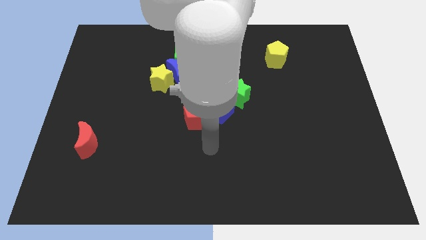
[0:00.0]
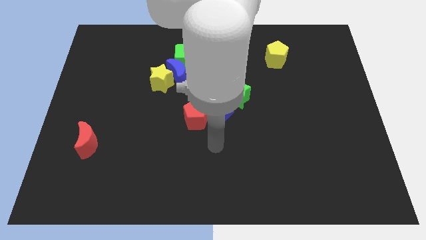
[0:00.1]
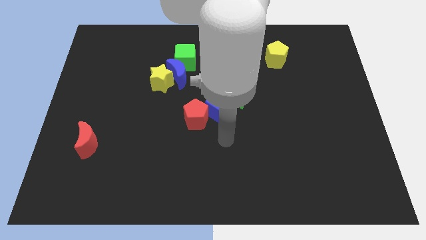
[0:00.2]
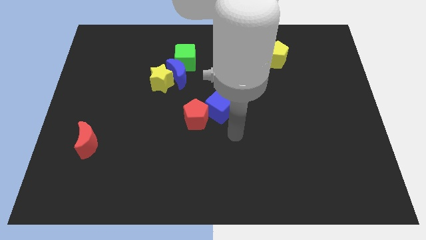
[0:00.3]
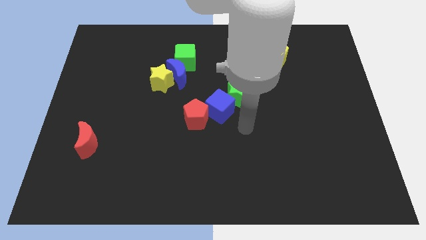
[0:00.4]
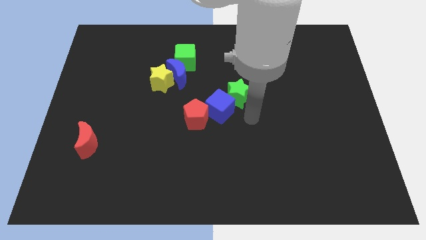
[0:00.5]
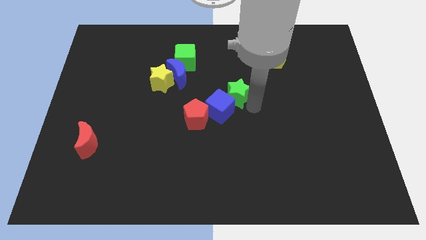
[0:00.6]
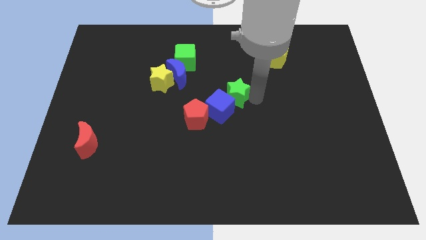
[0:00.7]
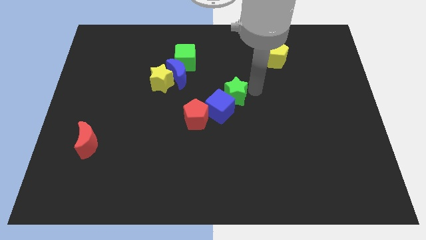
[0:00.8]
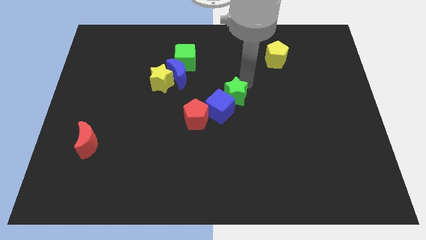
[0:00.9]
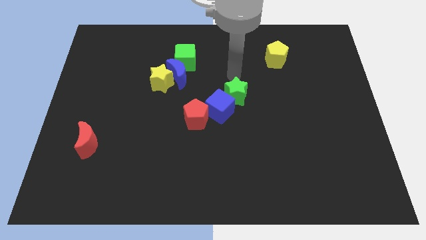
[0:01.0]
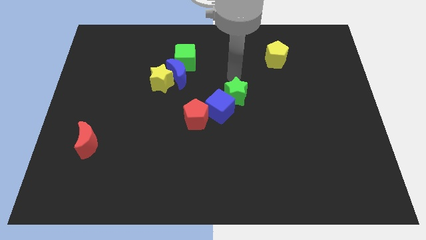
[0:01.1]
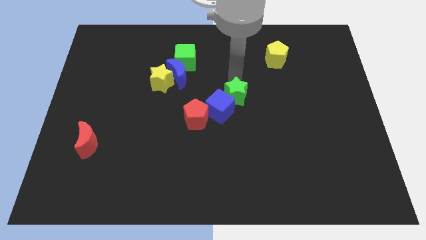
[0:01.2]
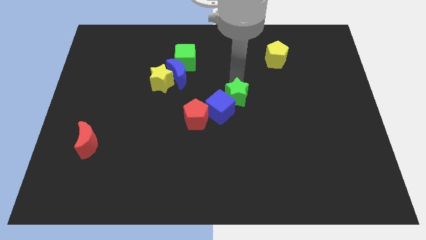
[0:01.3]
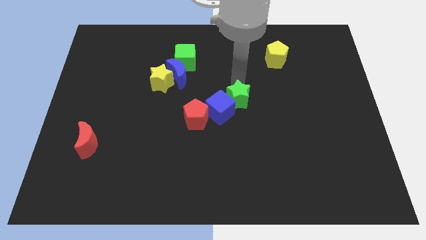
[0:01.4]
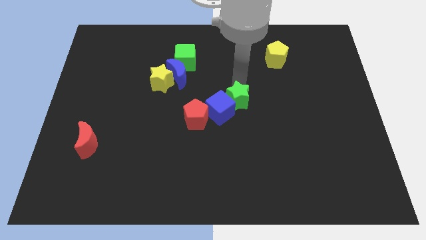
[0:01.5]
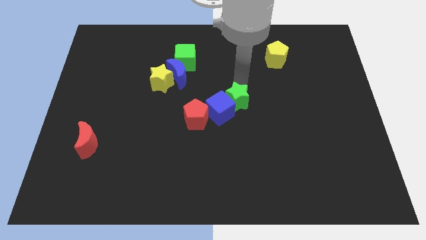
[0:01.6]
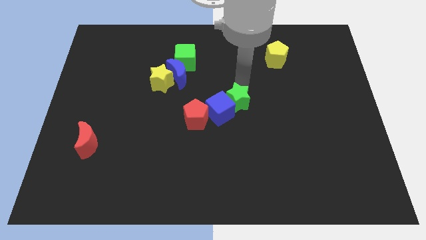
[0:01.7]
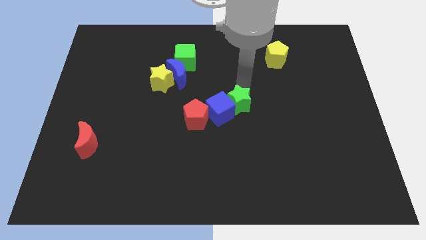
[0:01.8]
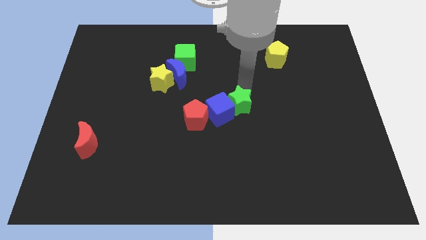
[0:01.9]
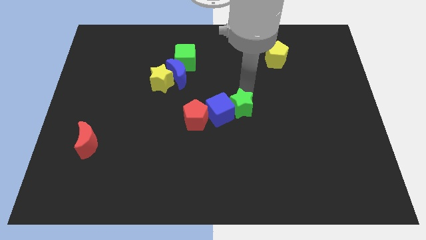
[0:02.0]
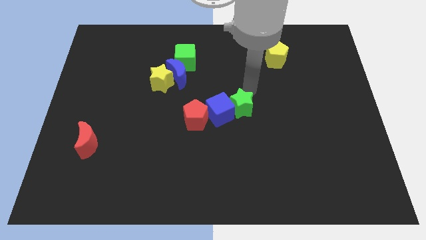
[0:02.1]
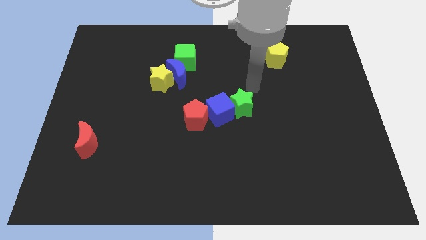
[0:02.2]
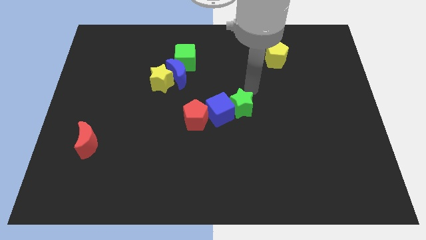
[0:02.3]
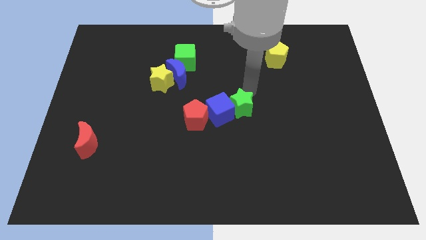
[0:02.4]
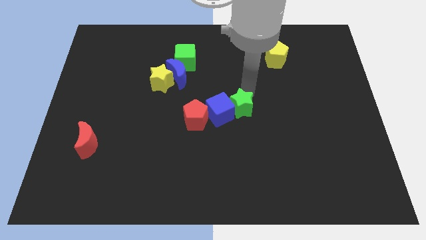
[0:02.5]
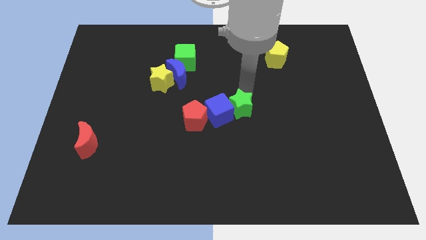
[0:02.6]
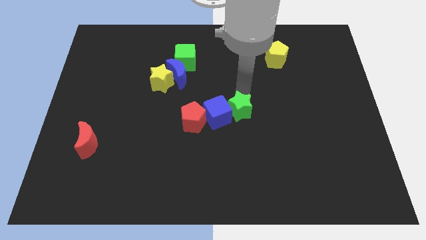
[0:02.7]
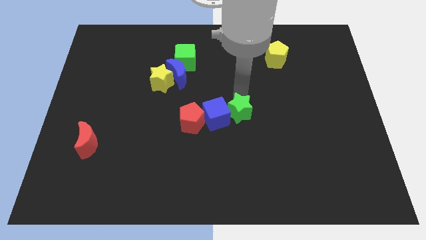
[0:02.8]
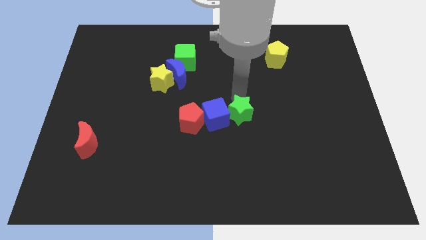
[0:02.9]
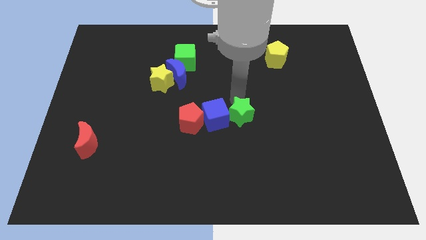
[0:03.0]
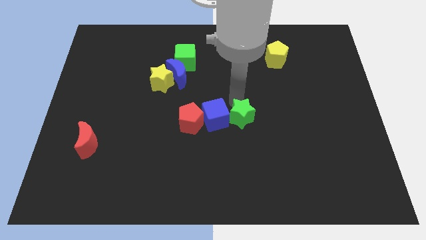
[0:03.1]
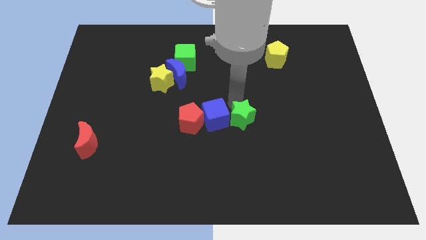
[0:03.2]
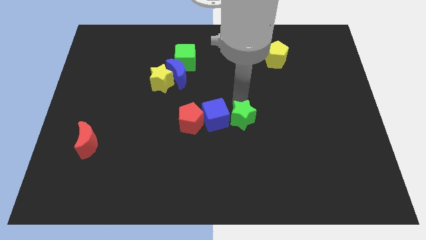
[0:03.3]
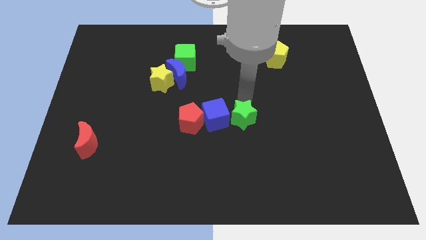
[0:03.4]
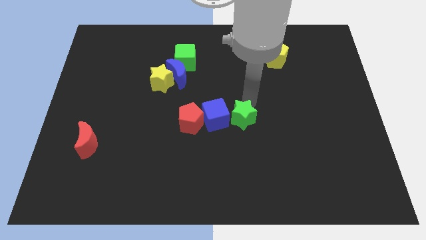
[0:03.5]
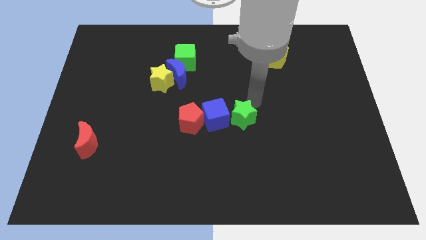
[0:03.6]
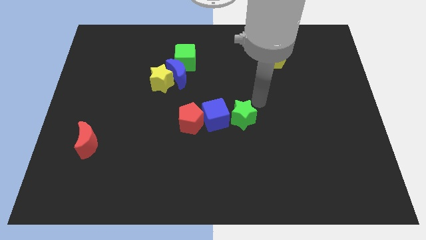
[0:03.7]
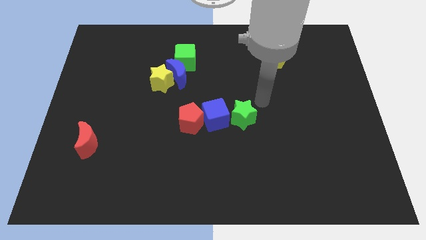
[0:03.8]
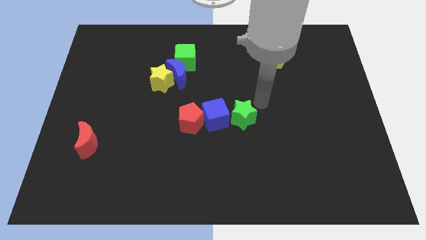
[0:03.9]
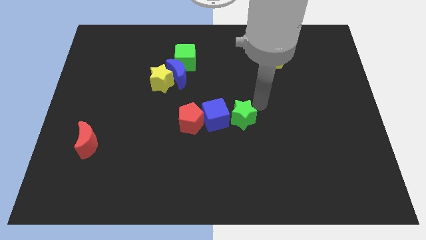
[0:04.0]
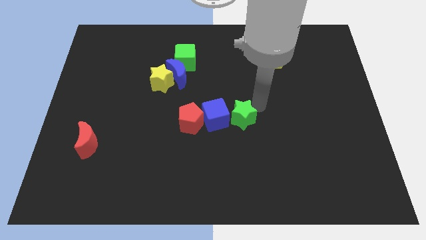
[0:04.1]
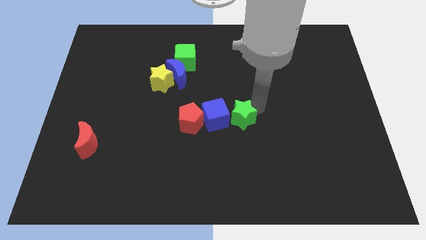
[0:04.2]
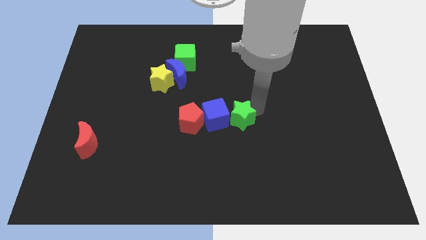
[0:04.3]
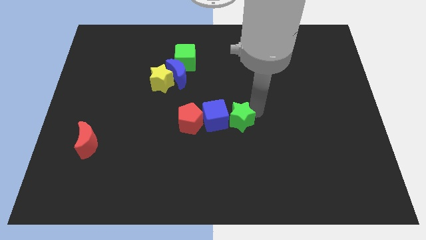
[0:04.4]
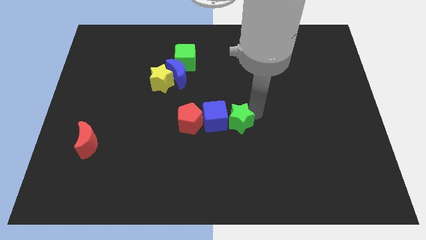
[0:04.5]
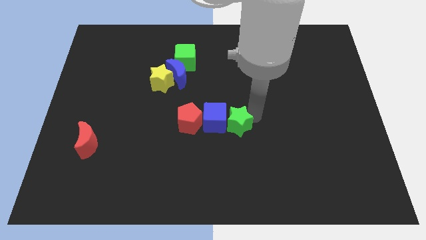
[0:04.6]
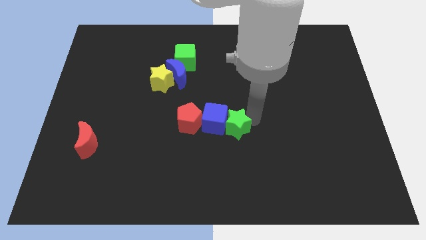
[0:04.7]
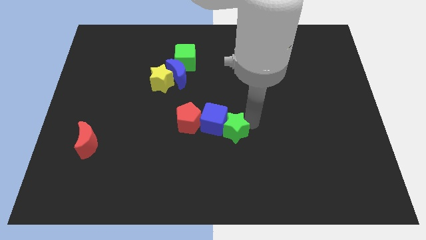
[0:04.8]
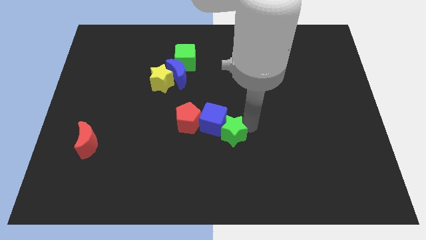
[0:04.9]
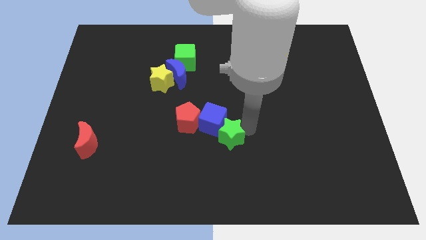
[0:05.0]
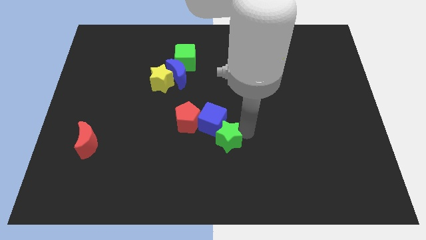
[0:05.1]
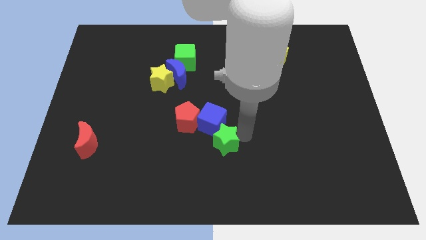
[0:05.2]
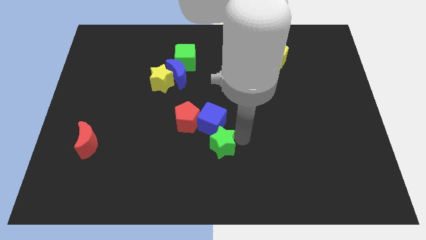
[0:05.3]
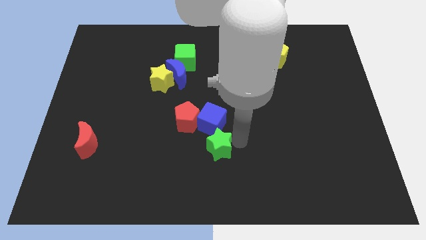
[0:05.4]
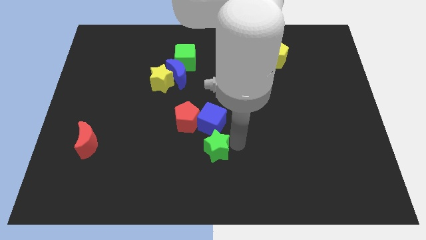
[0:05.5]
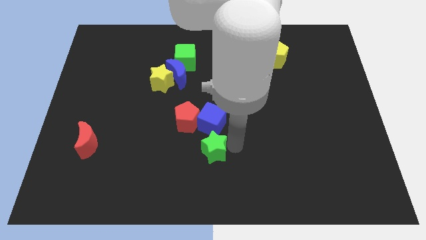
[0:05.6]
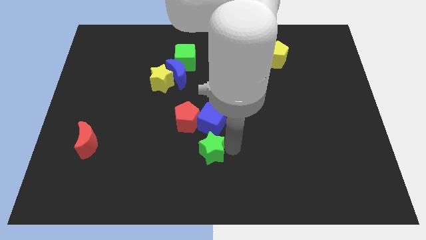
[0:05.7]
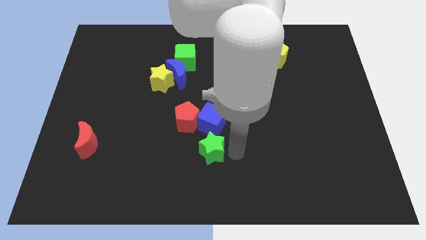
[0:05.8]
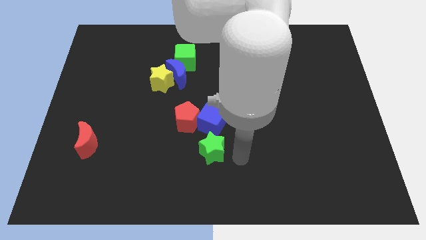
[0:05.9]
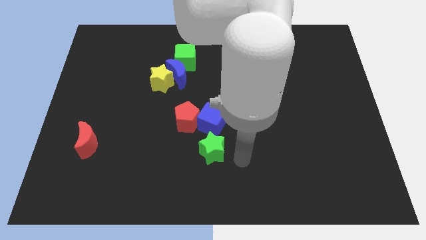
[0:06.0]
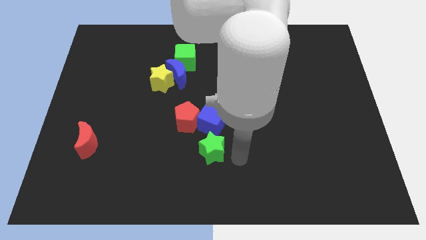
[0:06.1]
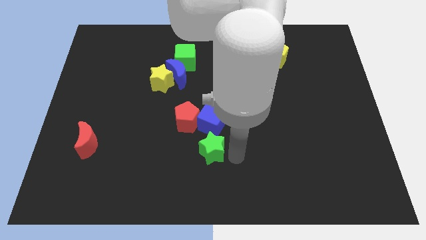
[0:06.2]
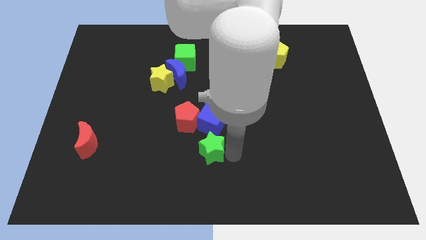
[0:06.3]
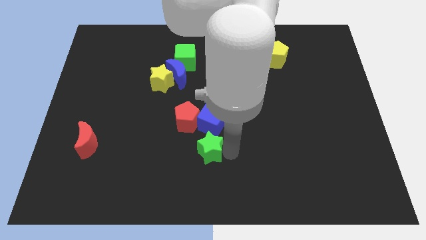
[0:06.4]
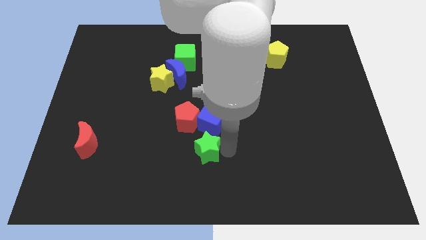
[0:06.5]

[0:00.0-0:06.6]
push the green star to the bottom left of the blue cube

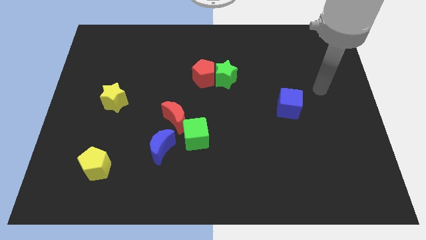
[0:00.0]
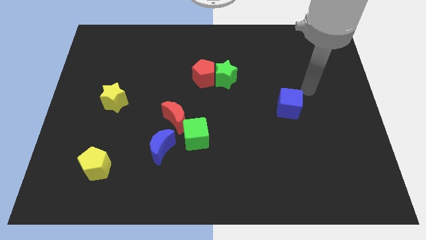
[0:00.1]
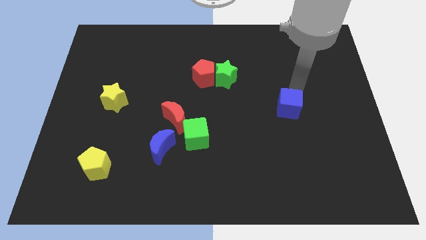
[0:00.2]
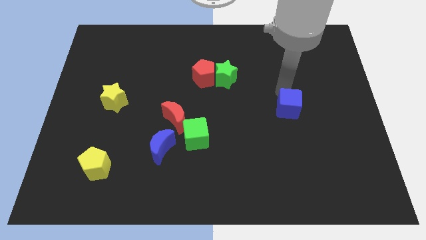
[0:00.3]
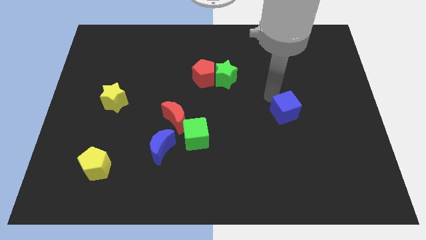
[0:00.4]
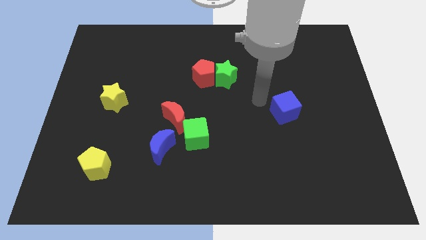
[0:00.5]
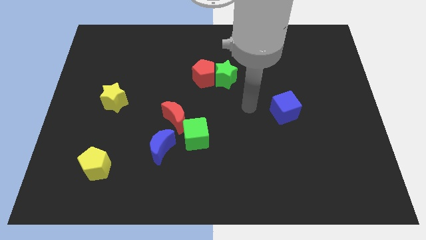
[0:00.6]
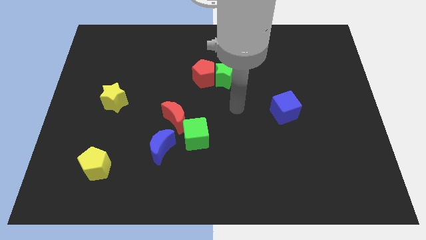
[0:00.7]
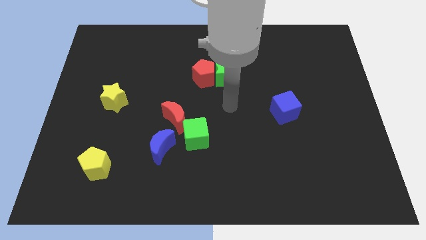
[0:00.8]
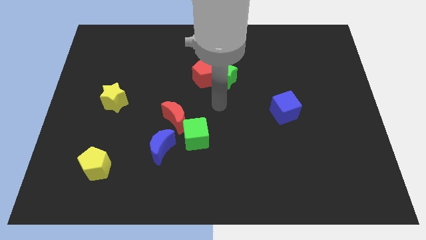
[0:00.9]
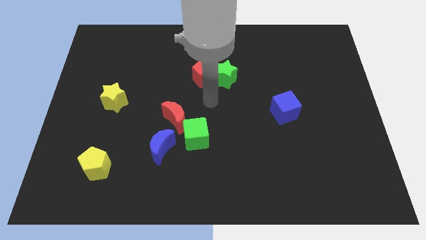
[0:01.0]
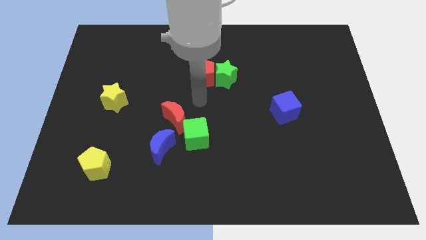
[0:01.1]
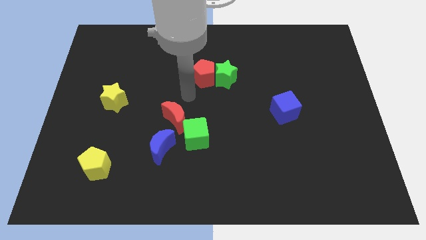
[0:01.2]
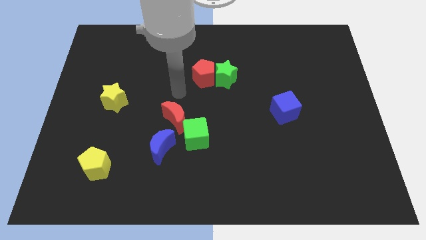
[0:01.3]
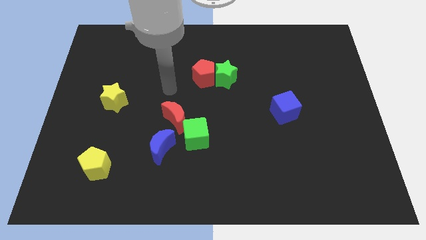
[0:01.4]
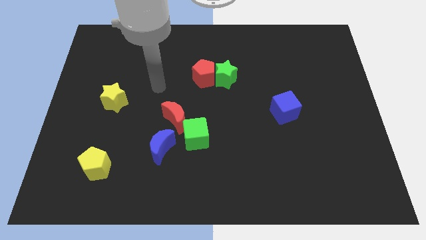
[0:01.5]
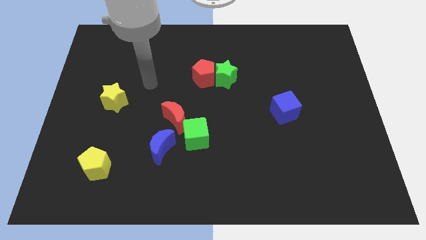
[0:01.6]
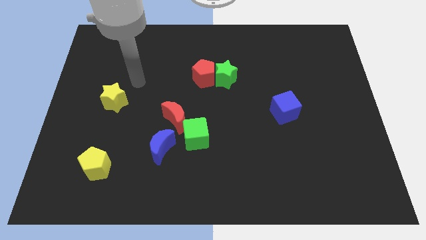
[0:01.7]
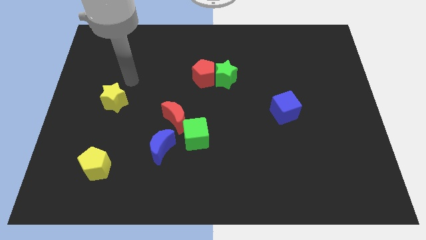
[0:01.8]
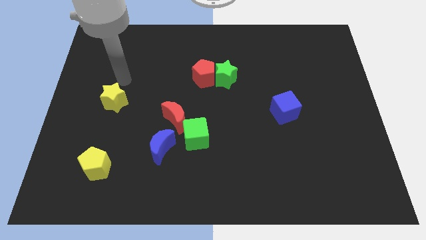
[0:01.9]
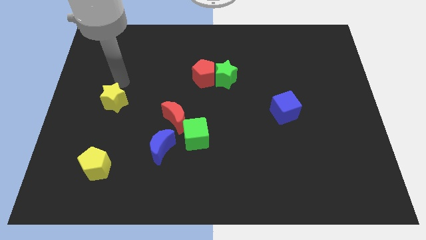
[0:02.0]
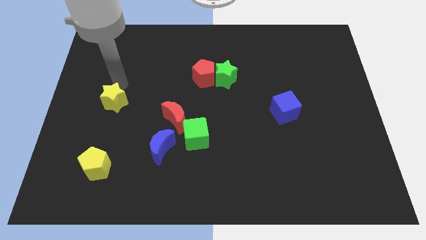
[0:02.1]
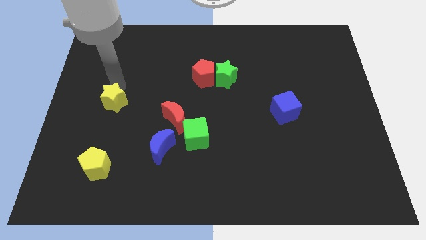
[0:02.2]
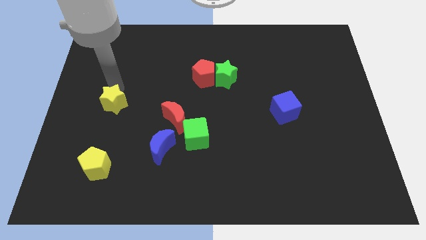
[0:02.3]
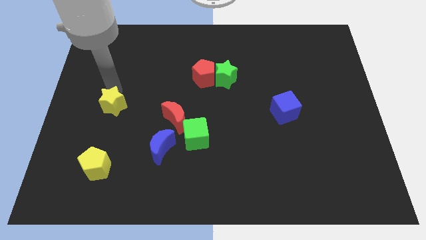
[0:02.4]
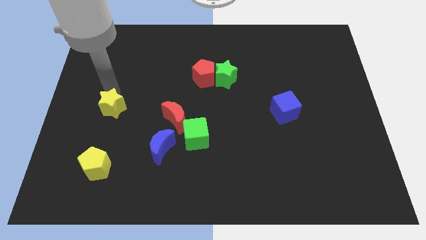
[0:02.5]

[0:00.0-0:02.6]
push the yellow star above the yellow pentagon
